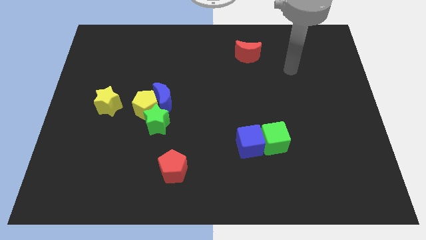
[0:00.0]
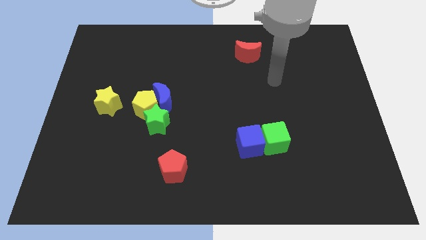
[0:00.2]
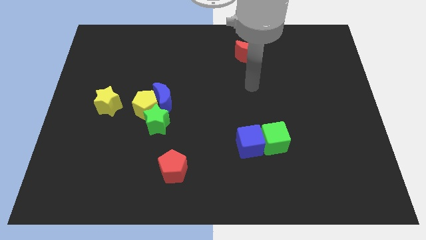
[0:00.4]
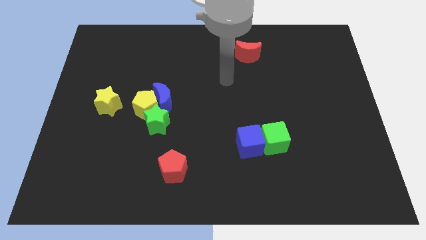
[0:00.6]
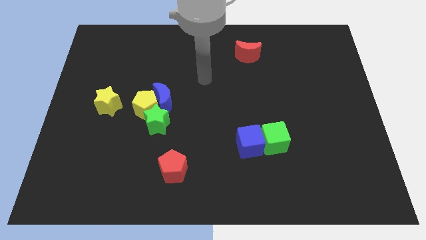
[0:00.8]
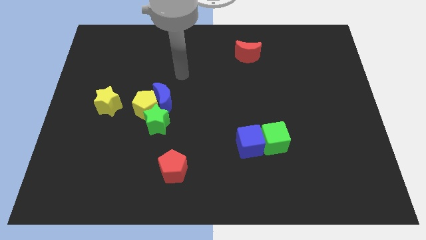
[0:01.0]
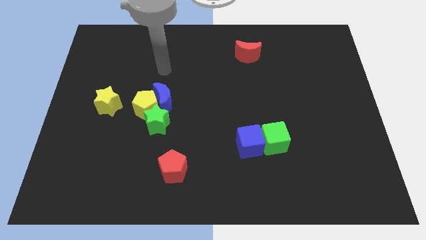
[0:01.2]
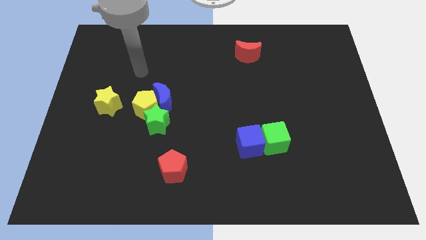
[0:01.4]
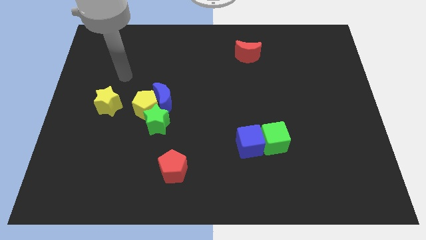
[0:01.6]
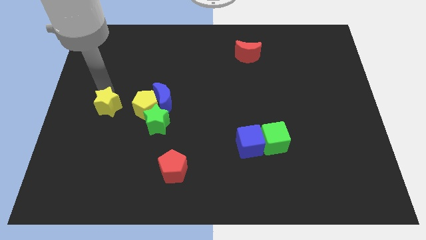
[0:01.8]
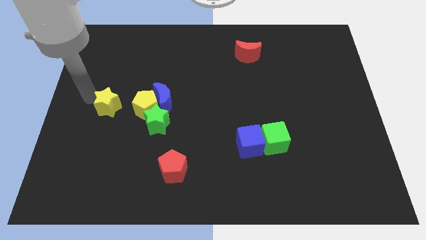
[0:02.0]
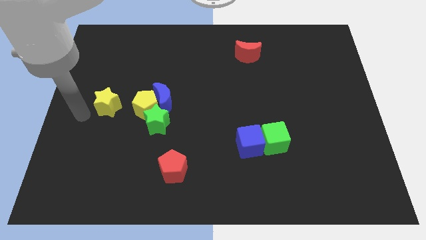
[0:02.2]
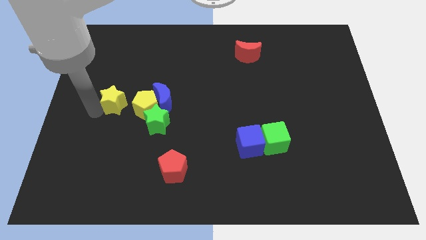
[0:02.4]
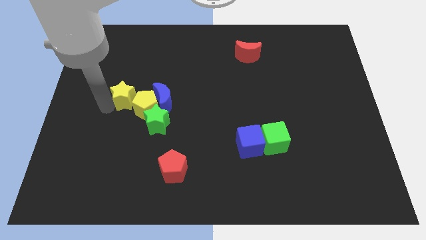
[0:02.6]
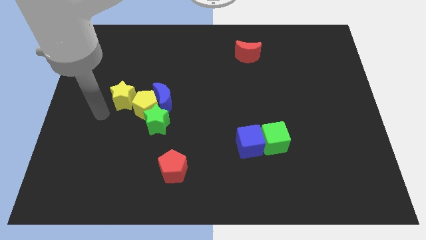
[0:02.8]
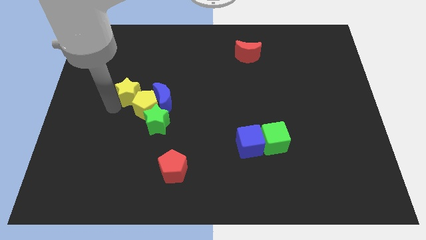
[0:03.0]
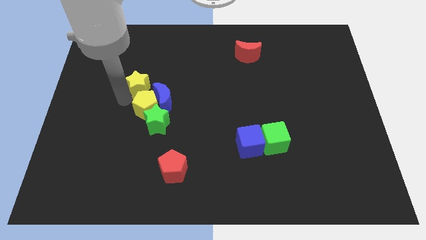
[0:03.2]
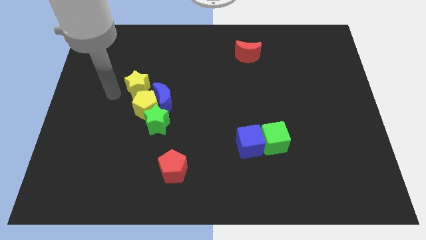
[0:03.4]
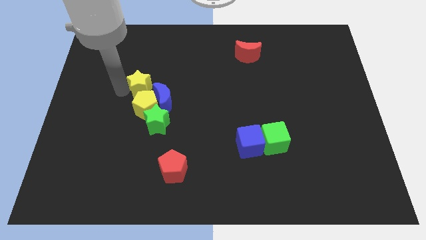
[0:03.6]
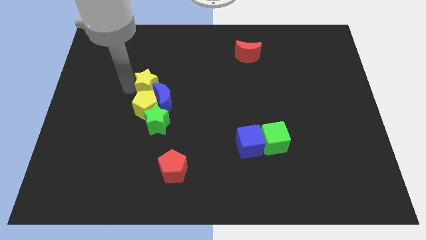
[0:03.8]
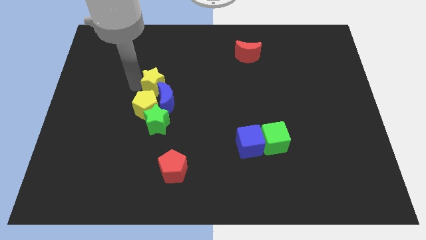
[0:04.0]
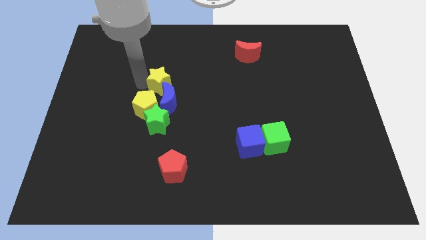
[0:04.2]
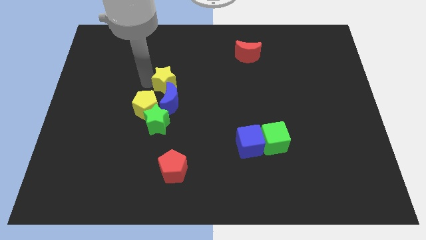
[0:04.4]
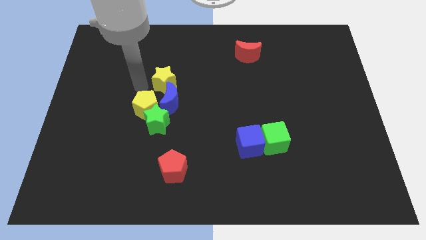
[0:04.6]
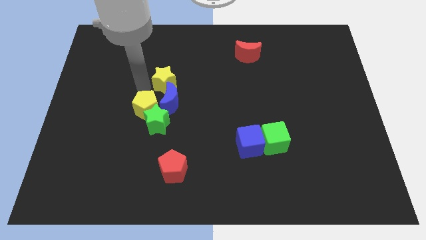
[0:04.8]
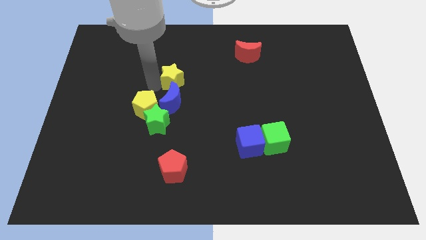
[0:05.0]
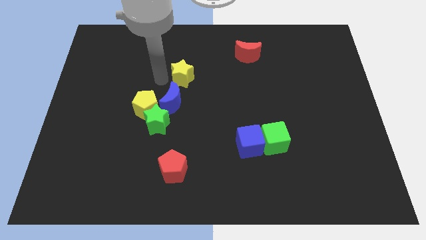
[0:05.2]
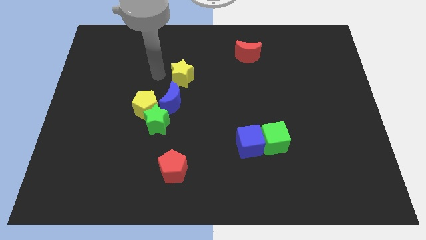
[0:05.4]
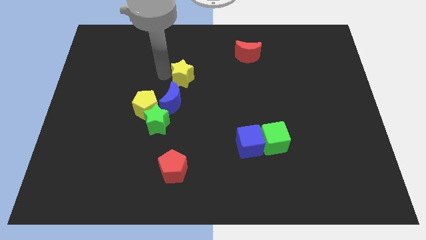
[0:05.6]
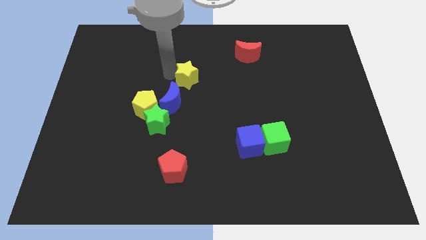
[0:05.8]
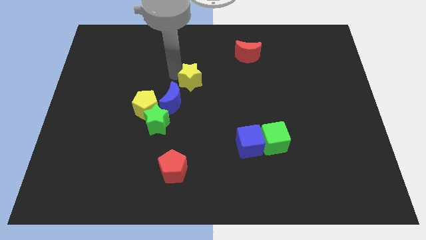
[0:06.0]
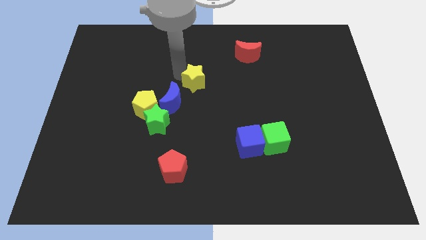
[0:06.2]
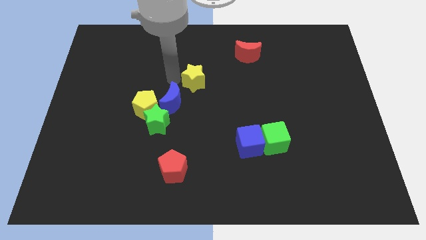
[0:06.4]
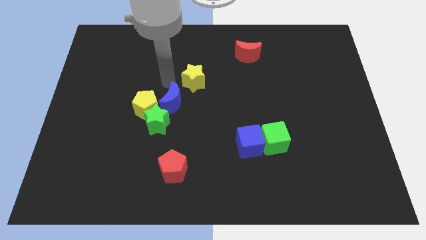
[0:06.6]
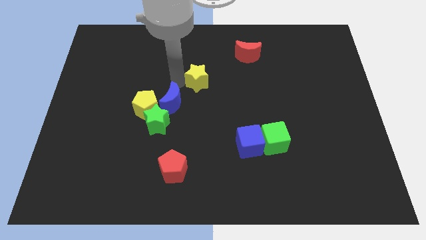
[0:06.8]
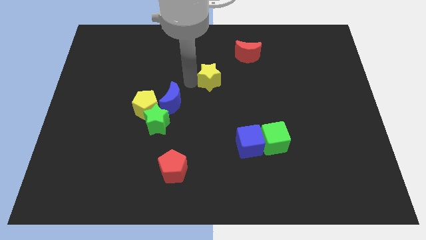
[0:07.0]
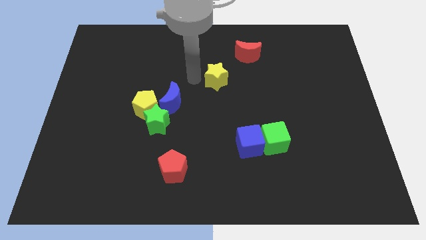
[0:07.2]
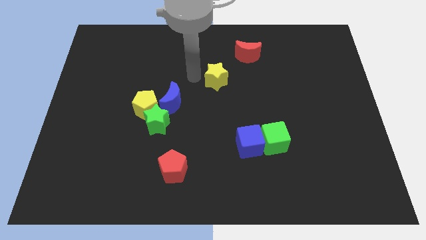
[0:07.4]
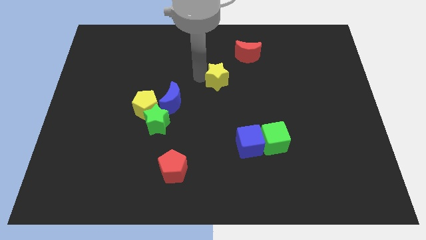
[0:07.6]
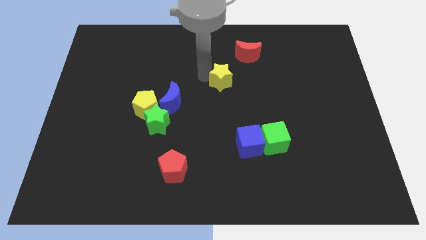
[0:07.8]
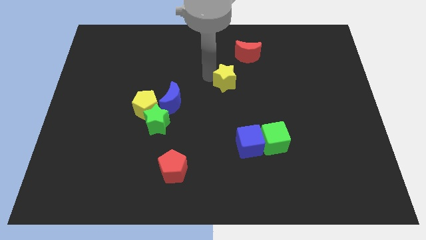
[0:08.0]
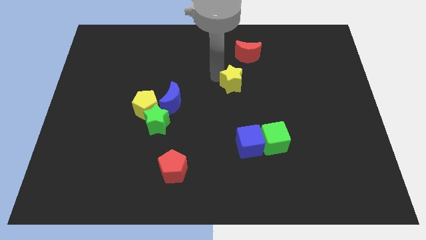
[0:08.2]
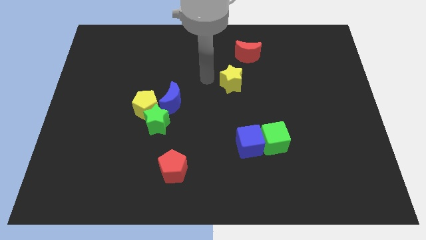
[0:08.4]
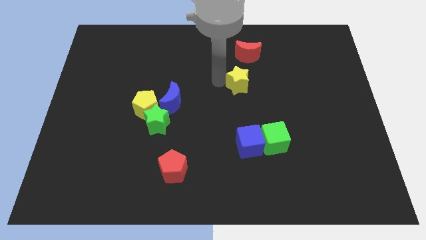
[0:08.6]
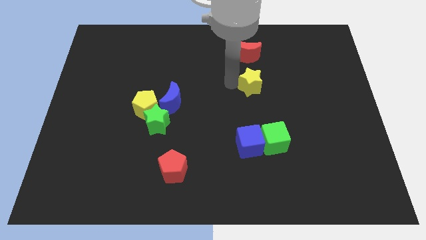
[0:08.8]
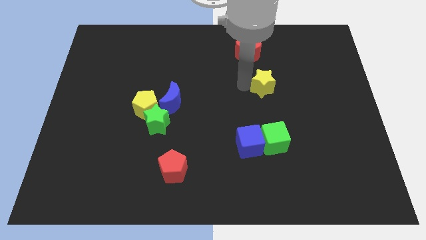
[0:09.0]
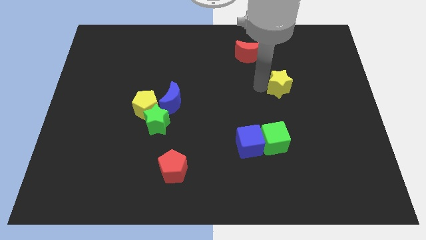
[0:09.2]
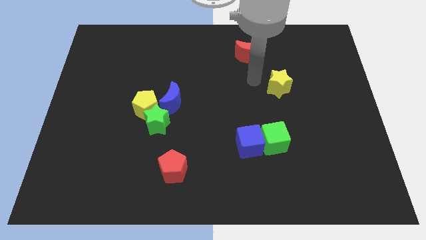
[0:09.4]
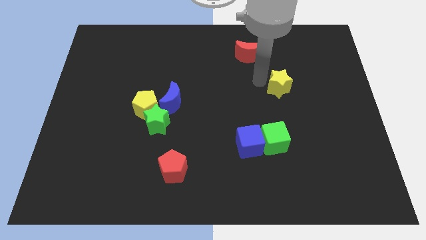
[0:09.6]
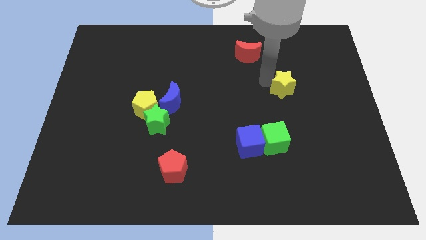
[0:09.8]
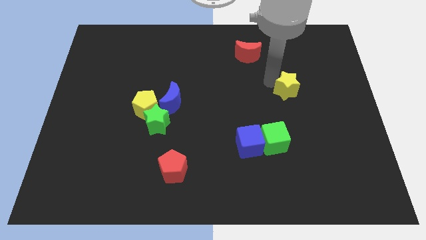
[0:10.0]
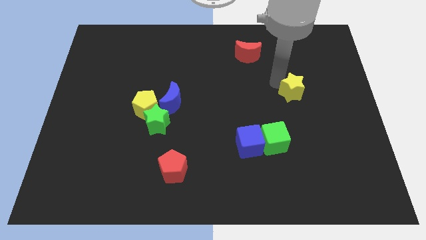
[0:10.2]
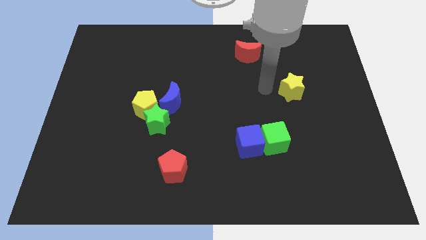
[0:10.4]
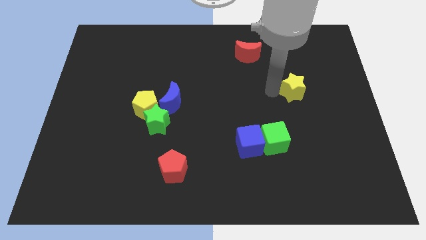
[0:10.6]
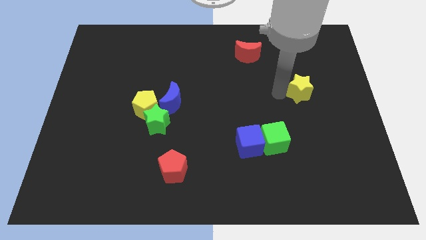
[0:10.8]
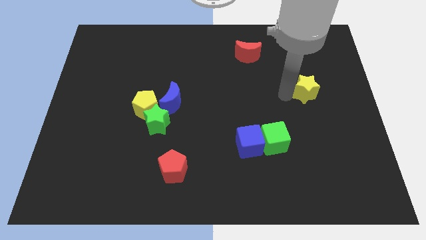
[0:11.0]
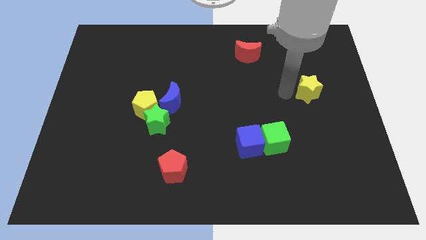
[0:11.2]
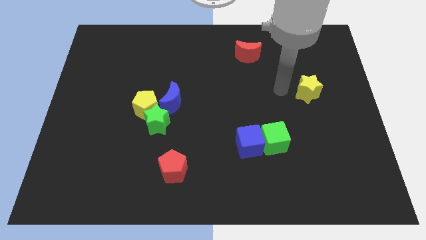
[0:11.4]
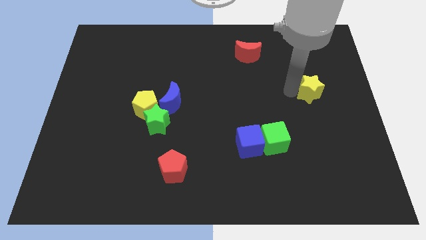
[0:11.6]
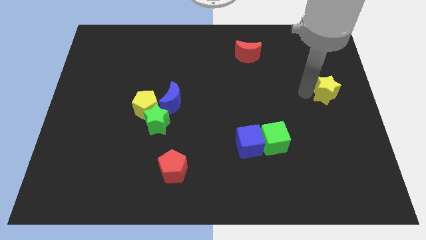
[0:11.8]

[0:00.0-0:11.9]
slide the yellow star to the center right

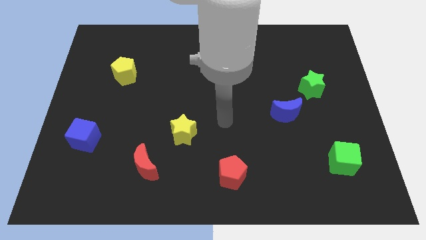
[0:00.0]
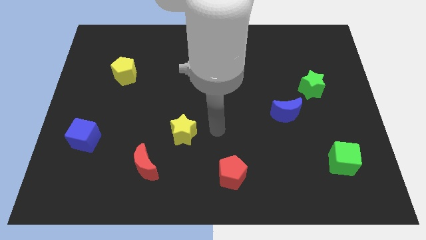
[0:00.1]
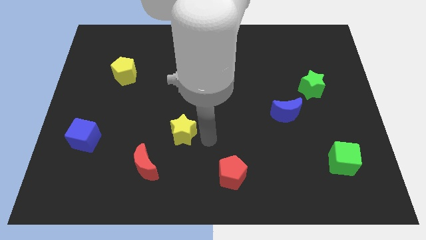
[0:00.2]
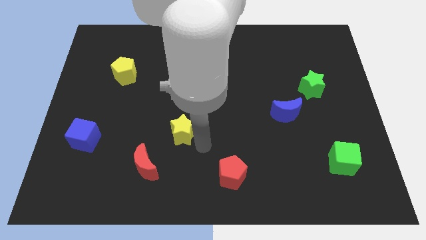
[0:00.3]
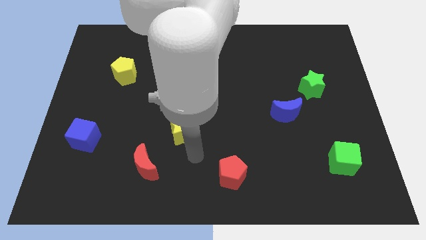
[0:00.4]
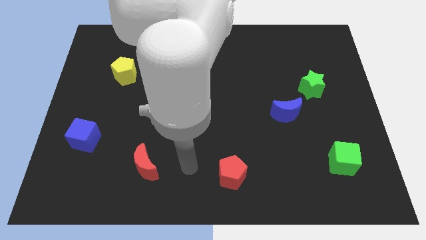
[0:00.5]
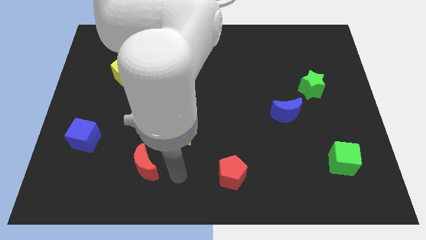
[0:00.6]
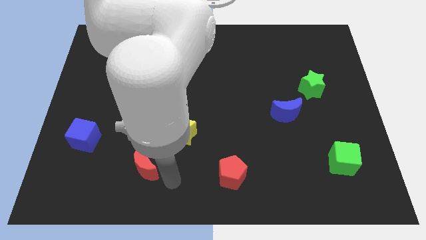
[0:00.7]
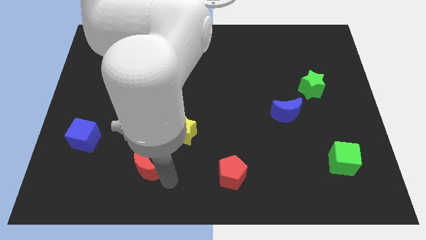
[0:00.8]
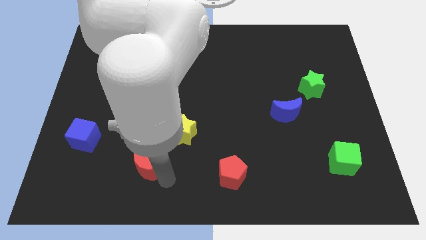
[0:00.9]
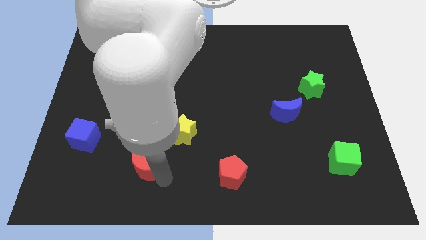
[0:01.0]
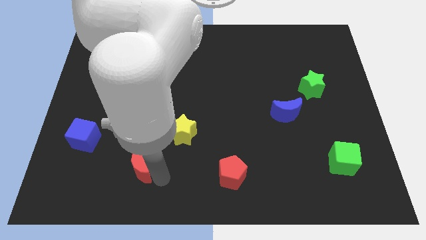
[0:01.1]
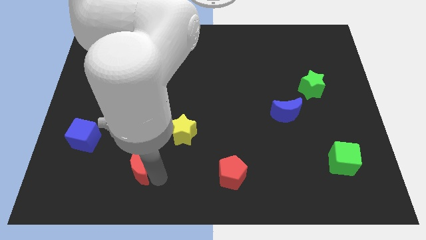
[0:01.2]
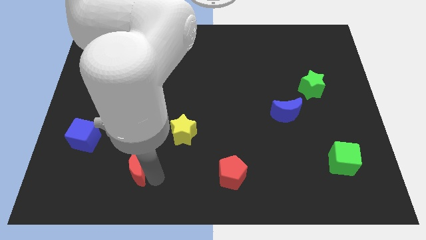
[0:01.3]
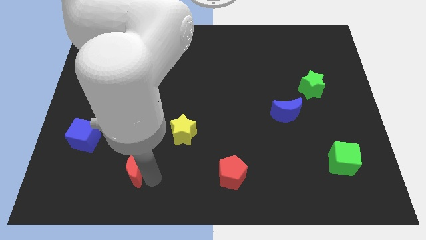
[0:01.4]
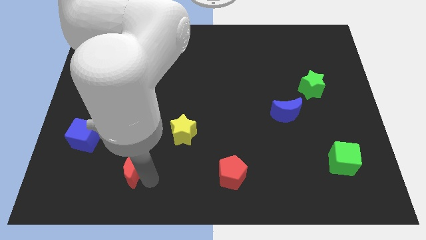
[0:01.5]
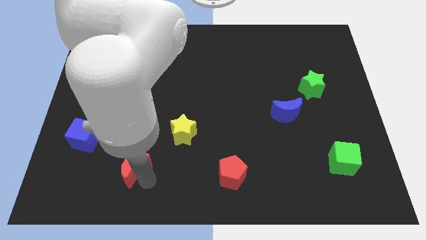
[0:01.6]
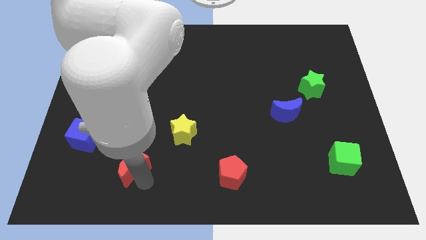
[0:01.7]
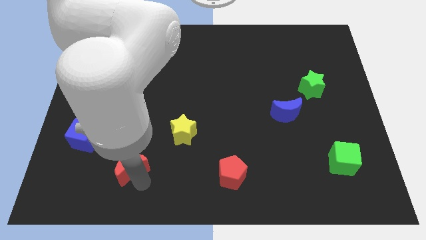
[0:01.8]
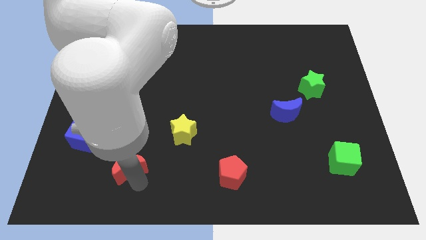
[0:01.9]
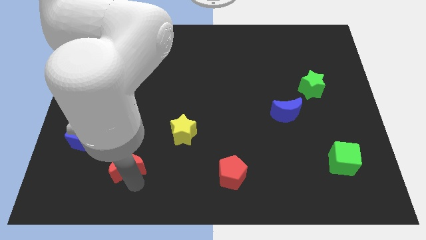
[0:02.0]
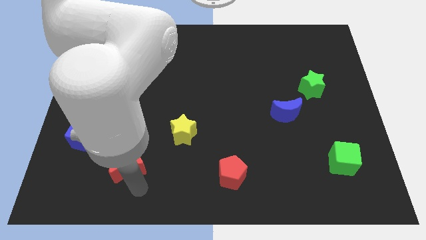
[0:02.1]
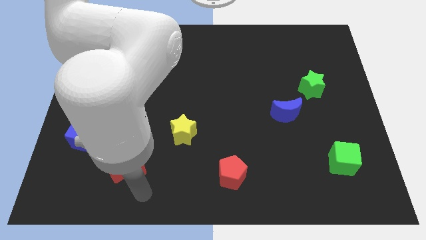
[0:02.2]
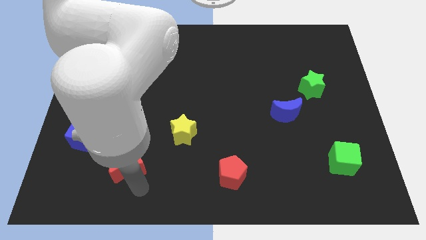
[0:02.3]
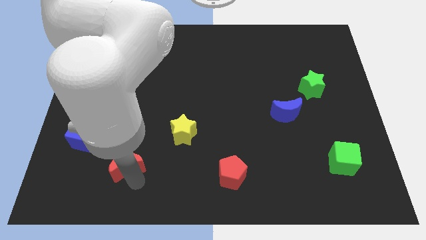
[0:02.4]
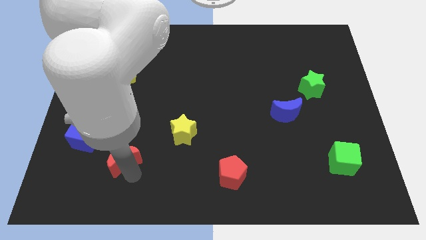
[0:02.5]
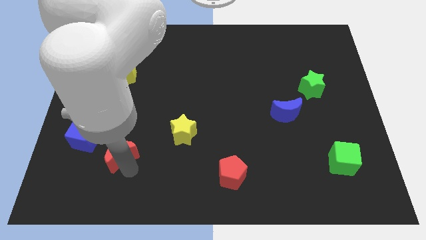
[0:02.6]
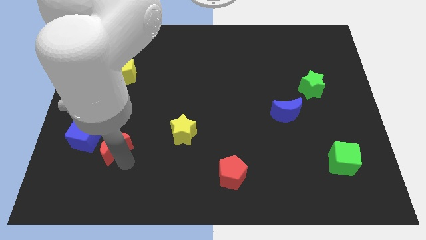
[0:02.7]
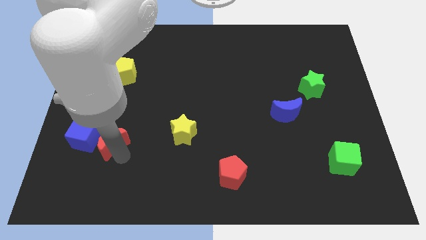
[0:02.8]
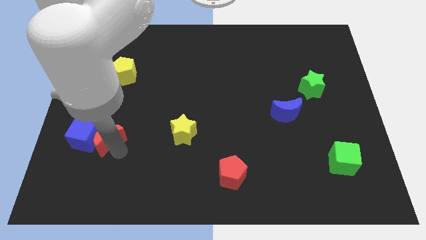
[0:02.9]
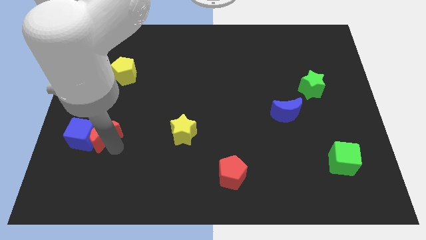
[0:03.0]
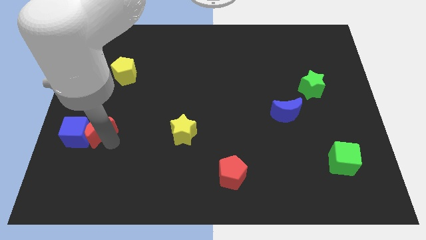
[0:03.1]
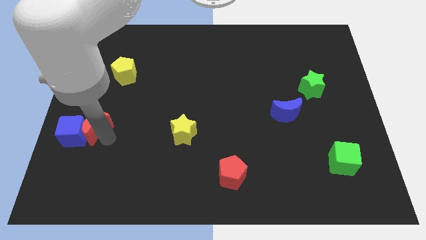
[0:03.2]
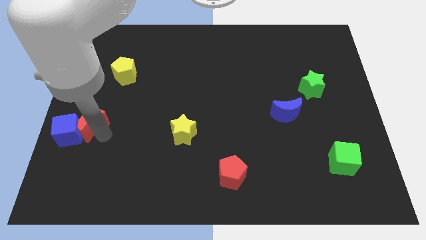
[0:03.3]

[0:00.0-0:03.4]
put the red moon to the left side
